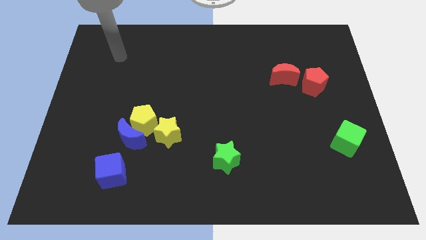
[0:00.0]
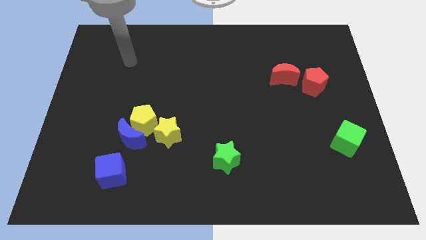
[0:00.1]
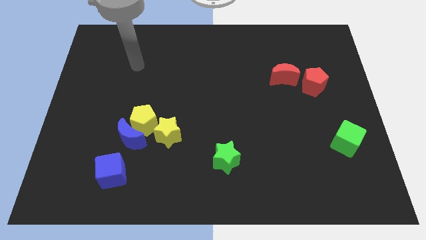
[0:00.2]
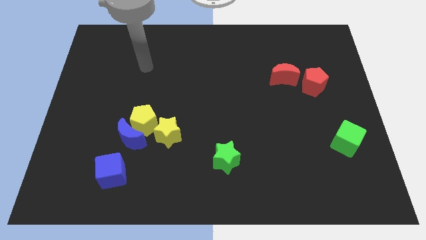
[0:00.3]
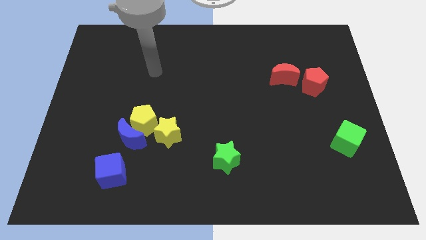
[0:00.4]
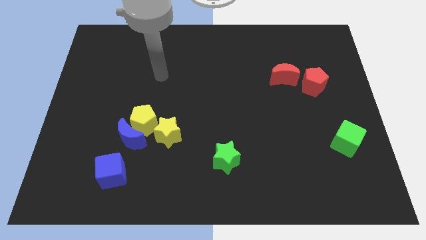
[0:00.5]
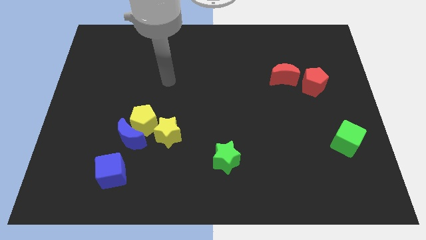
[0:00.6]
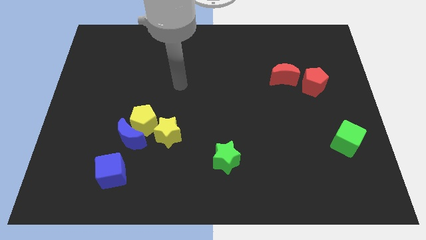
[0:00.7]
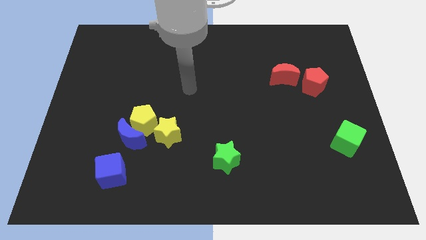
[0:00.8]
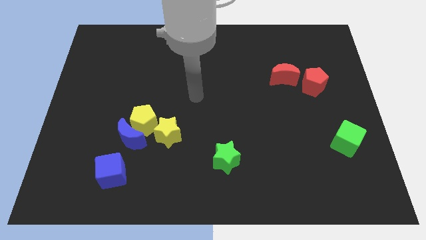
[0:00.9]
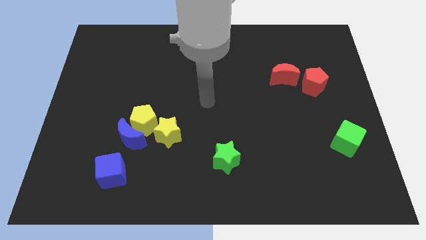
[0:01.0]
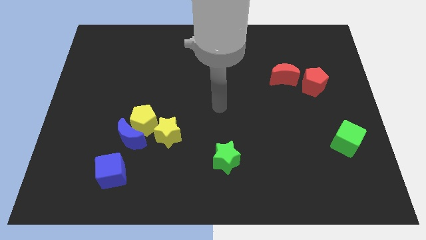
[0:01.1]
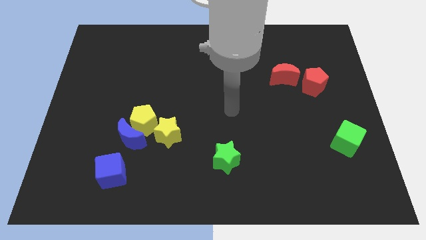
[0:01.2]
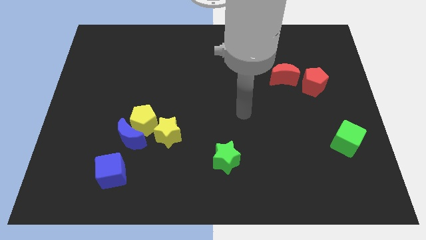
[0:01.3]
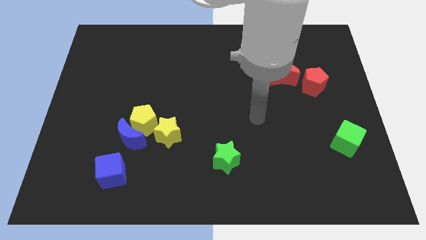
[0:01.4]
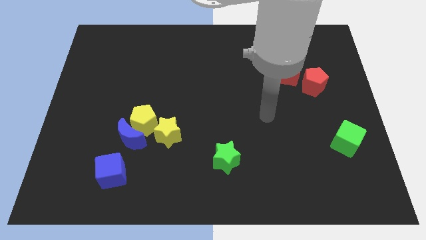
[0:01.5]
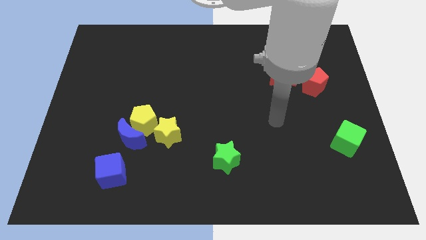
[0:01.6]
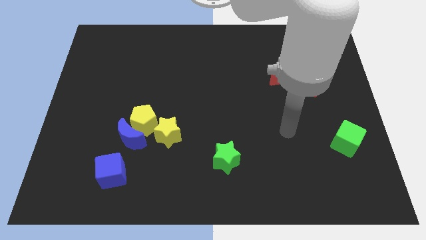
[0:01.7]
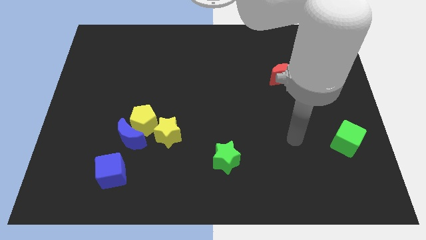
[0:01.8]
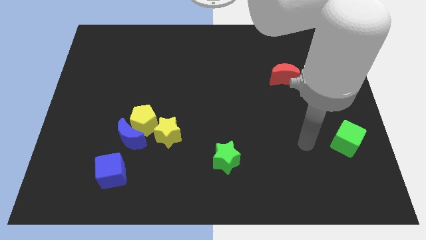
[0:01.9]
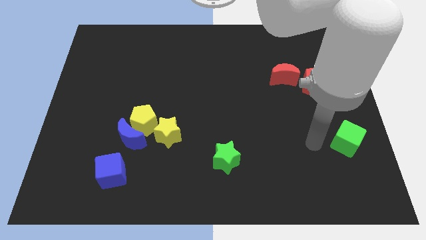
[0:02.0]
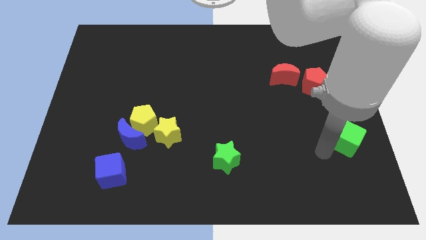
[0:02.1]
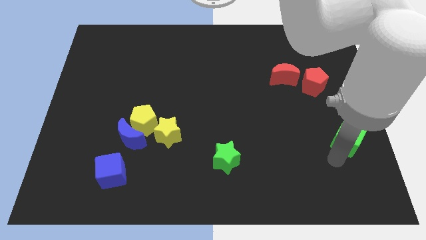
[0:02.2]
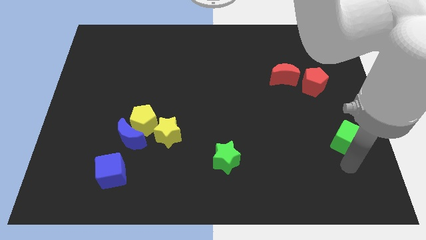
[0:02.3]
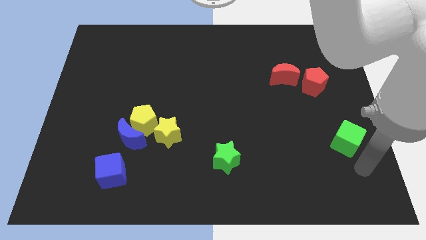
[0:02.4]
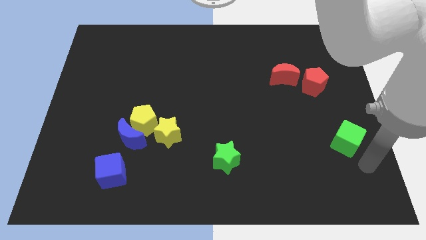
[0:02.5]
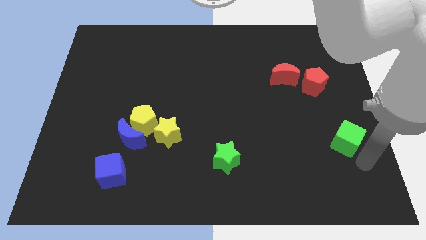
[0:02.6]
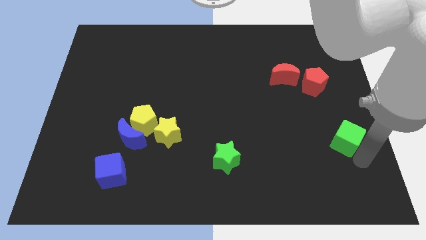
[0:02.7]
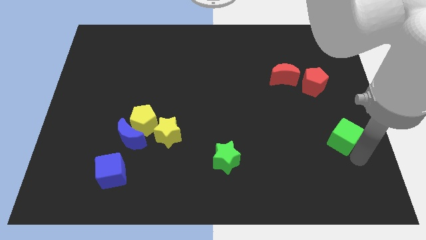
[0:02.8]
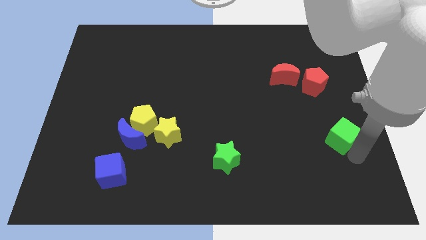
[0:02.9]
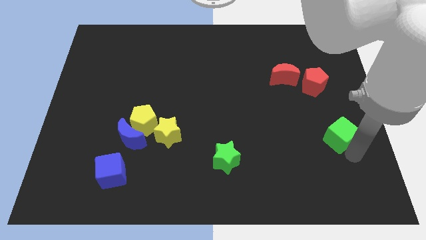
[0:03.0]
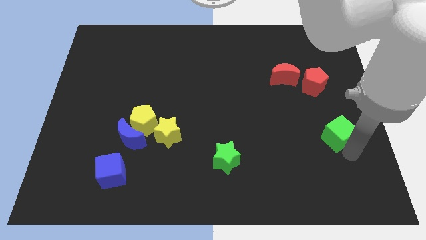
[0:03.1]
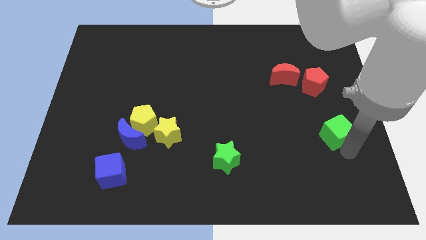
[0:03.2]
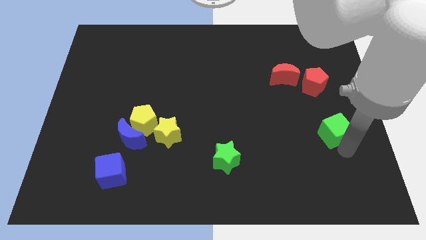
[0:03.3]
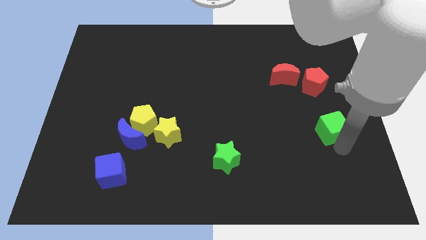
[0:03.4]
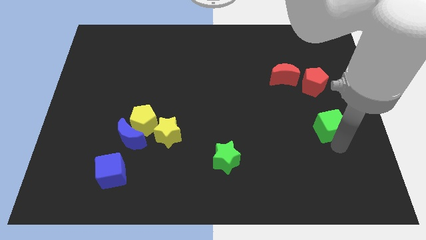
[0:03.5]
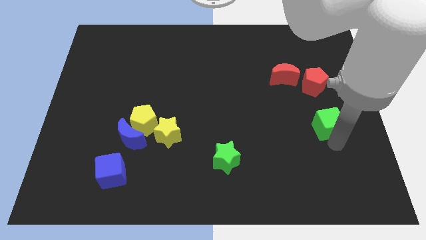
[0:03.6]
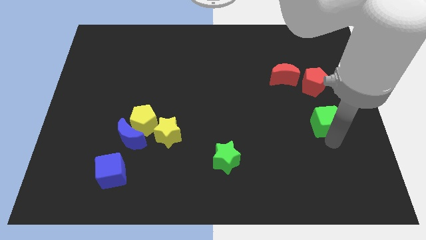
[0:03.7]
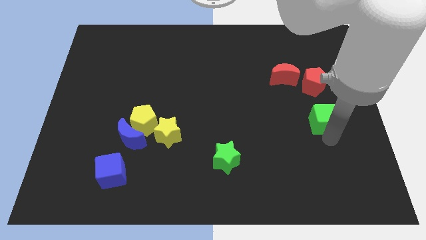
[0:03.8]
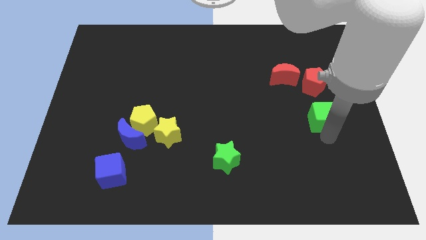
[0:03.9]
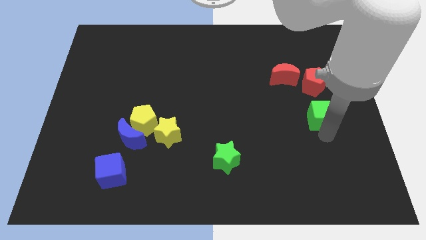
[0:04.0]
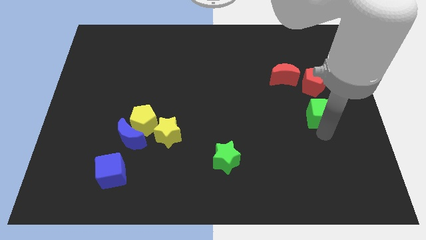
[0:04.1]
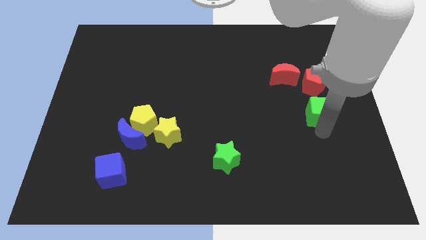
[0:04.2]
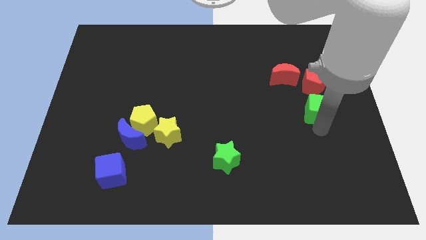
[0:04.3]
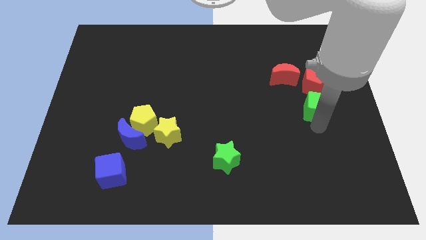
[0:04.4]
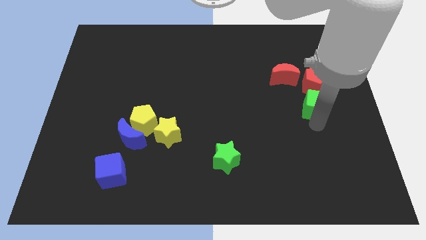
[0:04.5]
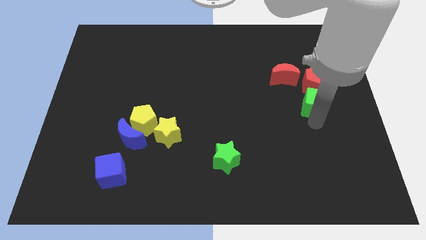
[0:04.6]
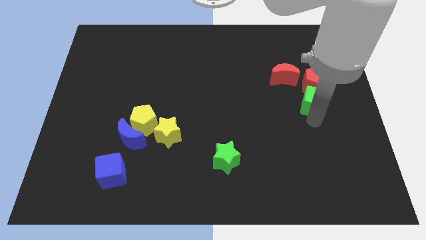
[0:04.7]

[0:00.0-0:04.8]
slide the green cube next to the red pentagon

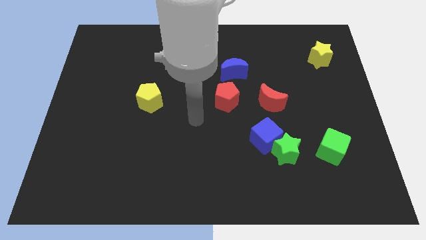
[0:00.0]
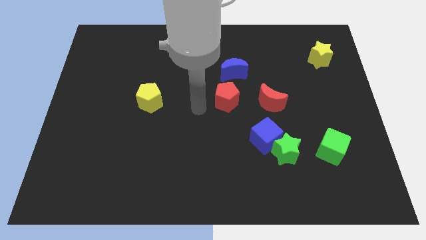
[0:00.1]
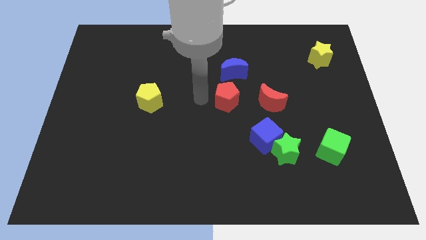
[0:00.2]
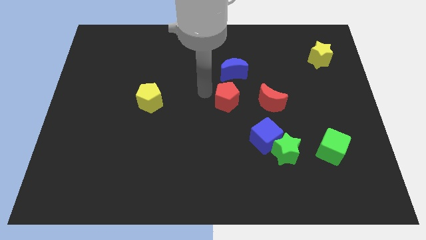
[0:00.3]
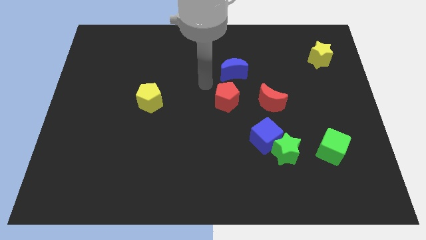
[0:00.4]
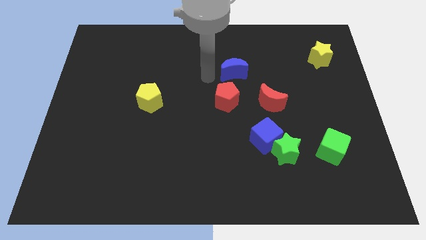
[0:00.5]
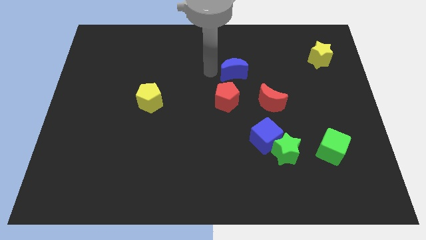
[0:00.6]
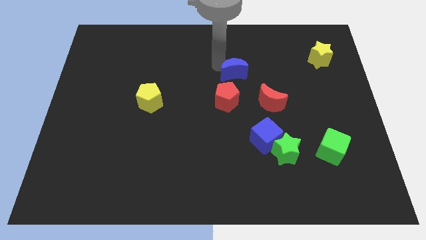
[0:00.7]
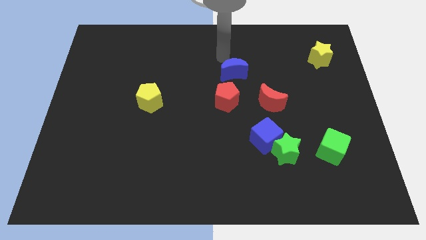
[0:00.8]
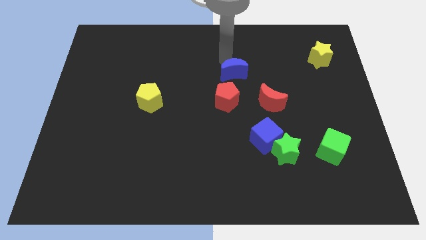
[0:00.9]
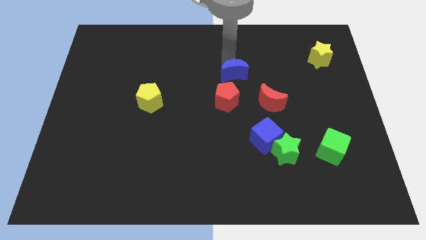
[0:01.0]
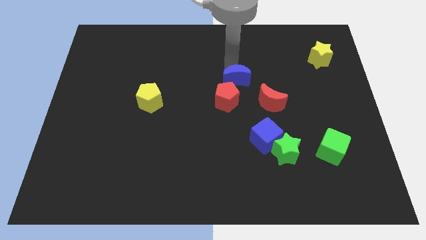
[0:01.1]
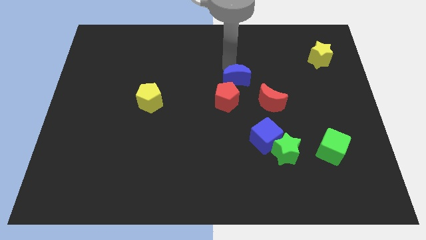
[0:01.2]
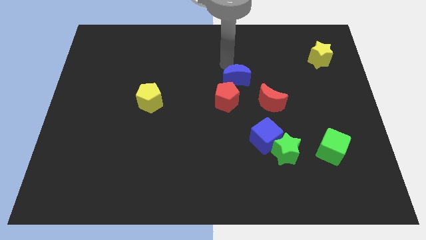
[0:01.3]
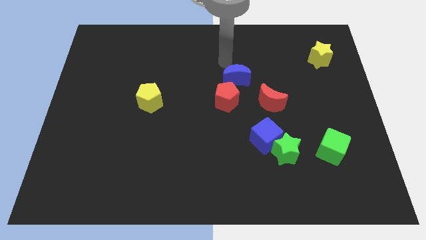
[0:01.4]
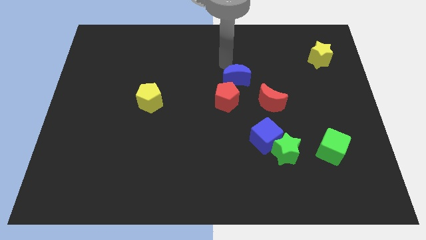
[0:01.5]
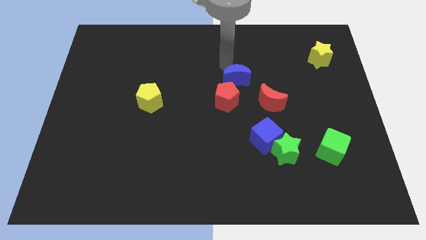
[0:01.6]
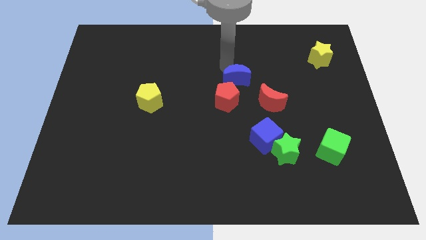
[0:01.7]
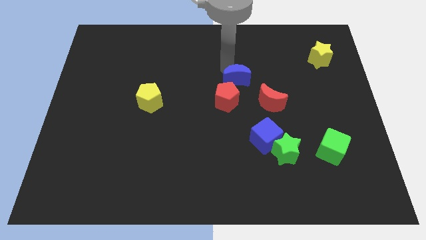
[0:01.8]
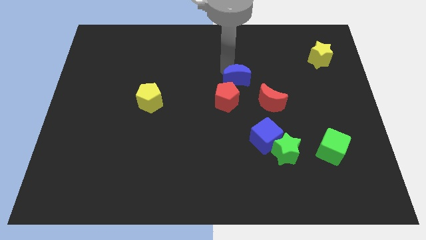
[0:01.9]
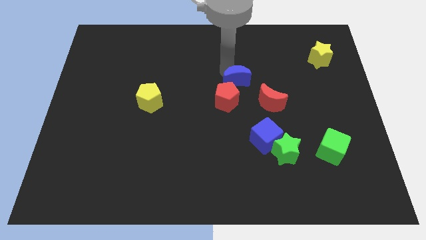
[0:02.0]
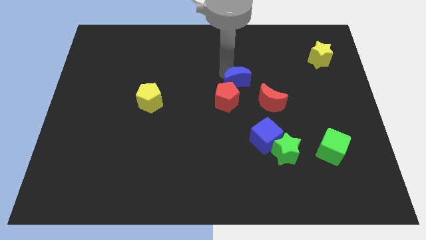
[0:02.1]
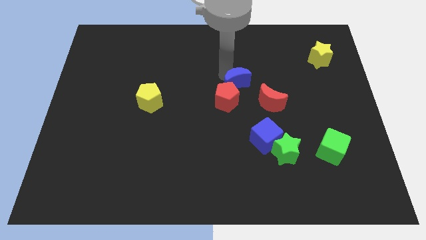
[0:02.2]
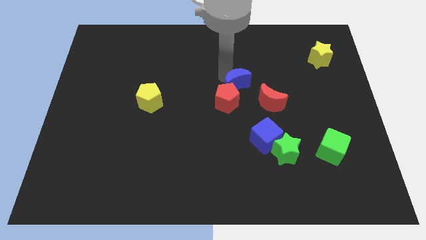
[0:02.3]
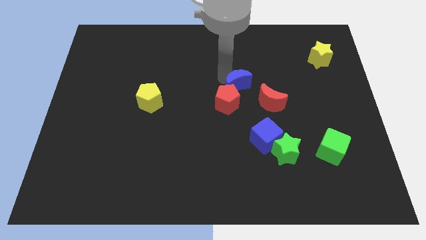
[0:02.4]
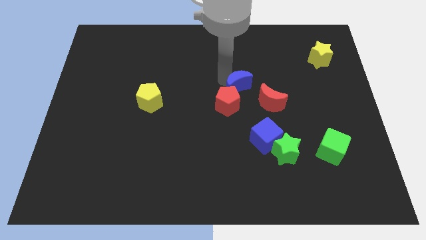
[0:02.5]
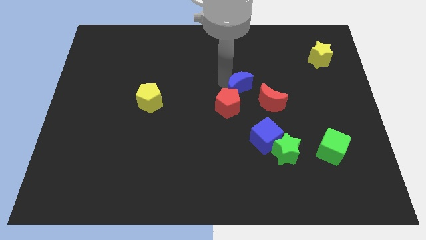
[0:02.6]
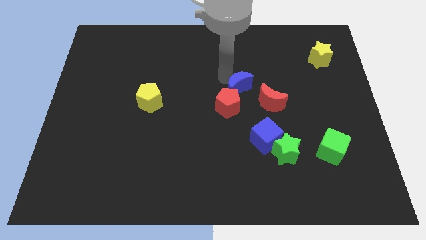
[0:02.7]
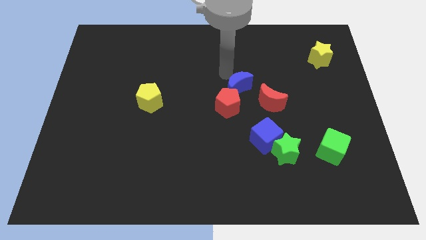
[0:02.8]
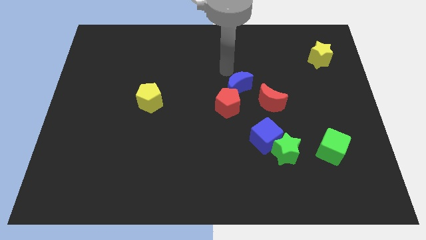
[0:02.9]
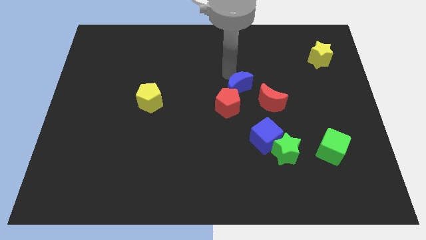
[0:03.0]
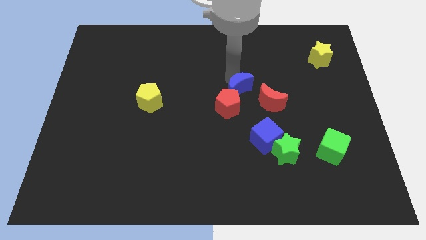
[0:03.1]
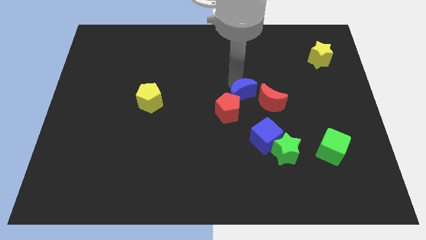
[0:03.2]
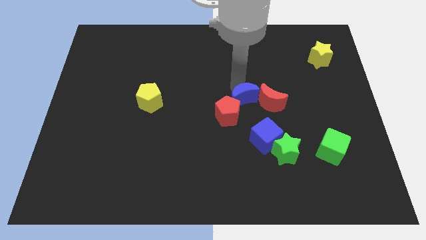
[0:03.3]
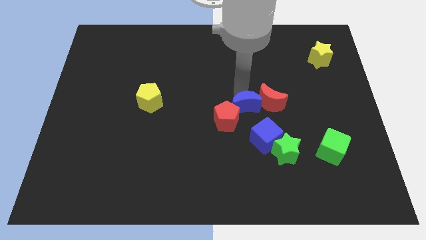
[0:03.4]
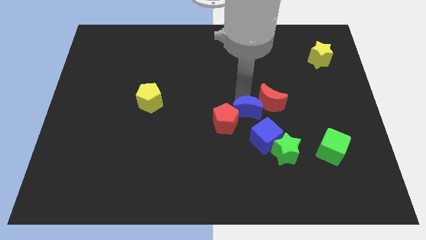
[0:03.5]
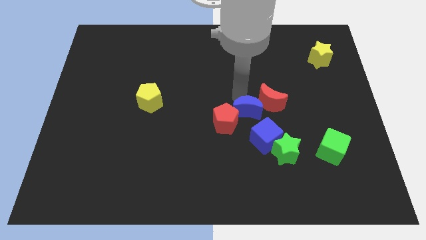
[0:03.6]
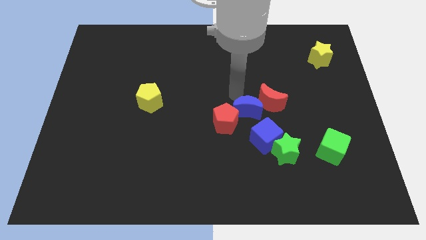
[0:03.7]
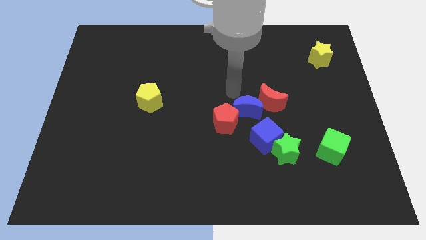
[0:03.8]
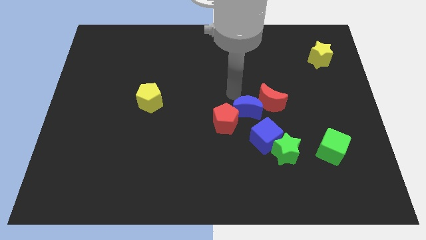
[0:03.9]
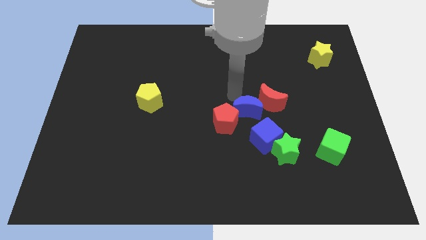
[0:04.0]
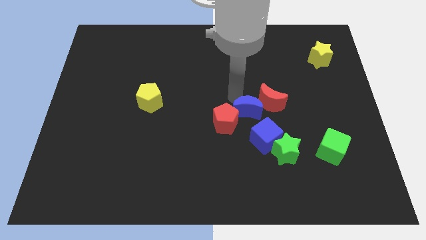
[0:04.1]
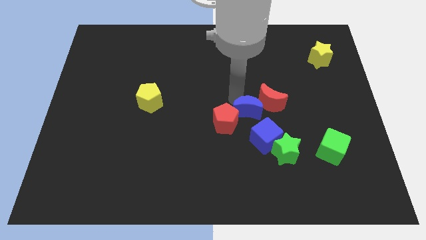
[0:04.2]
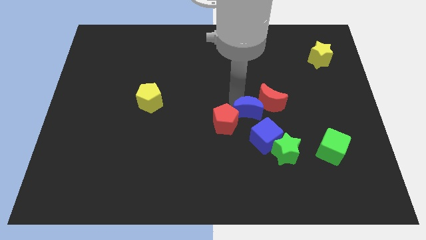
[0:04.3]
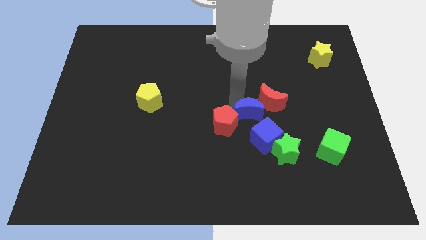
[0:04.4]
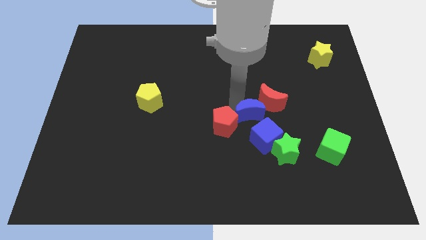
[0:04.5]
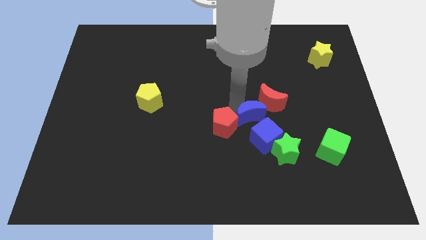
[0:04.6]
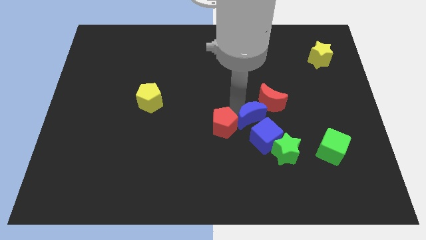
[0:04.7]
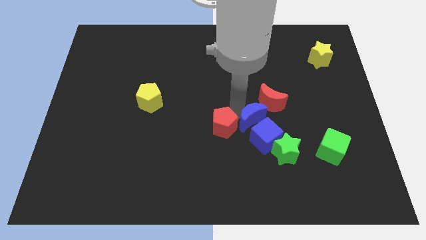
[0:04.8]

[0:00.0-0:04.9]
push the blue moon next to the blue cube
